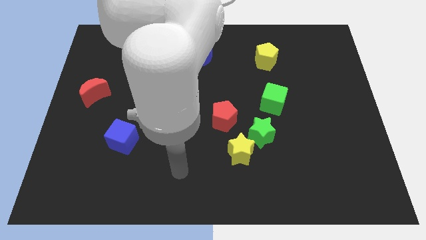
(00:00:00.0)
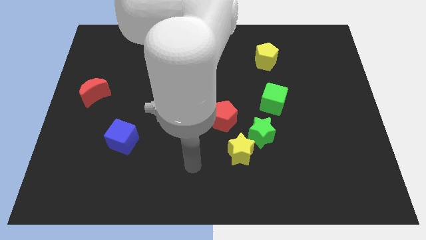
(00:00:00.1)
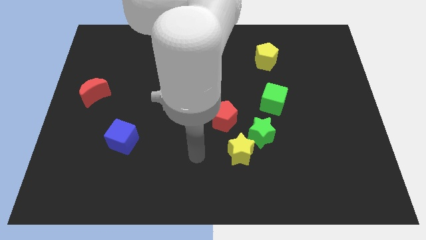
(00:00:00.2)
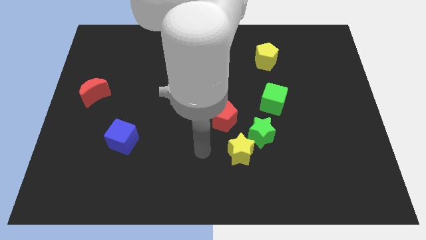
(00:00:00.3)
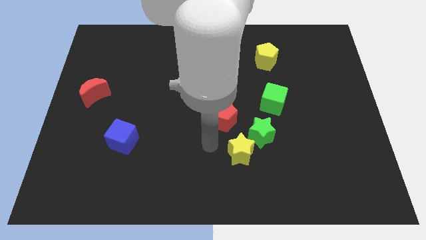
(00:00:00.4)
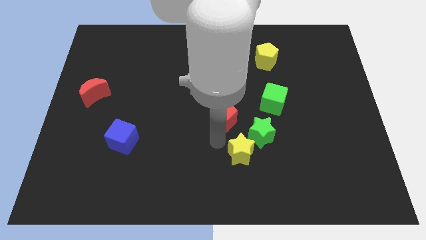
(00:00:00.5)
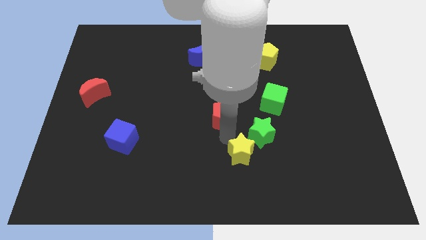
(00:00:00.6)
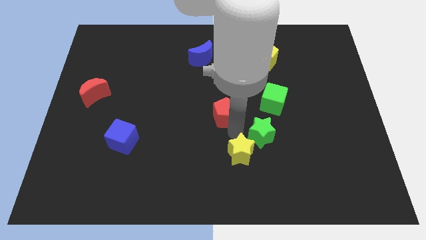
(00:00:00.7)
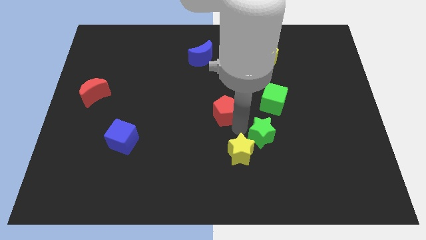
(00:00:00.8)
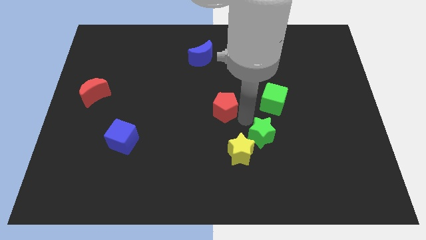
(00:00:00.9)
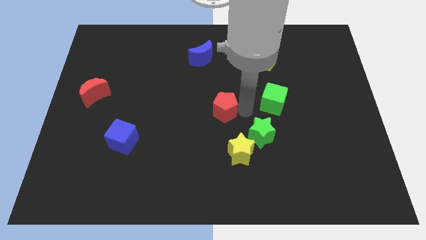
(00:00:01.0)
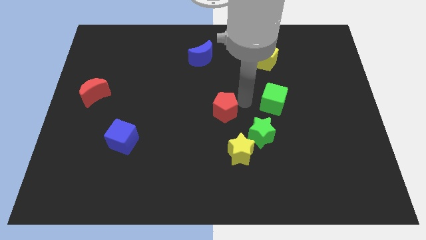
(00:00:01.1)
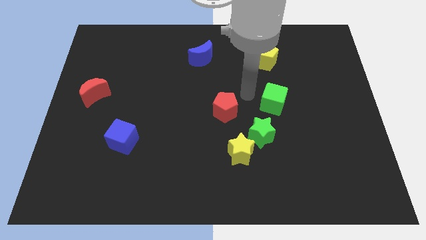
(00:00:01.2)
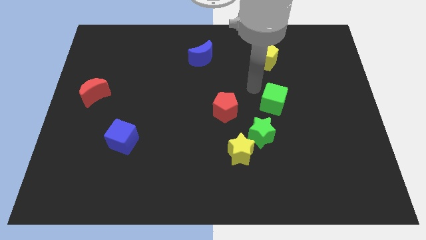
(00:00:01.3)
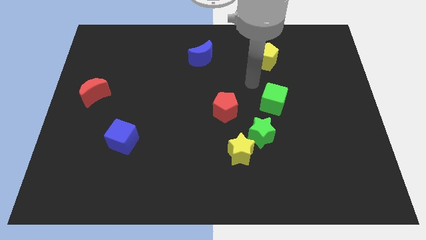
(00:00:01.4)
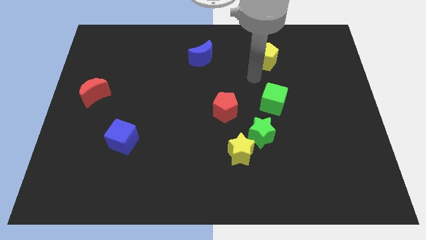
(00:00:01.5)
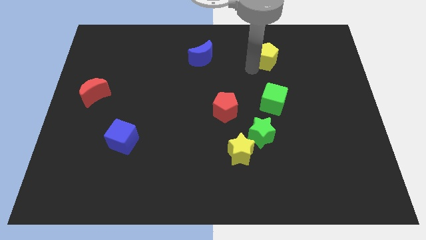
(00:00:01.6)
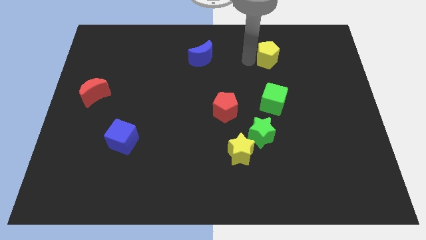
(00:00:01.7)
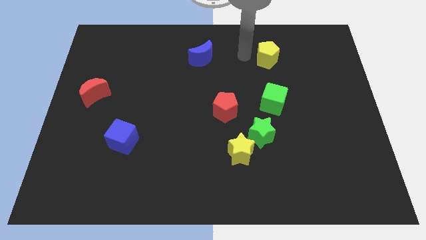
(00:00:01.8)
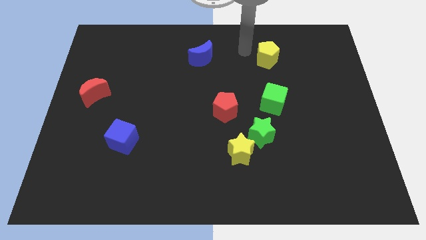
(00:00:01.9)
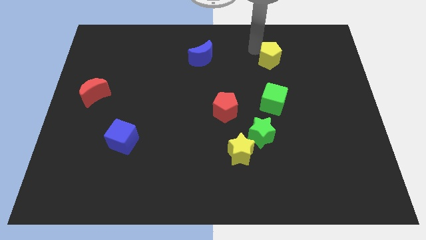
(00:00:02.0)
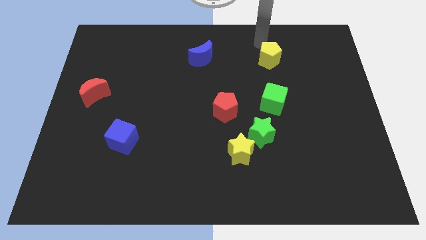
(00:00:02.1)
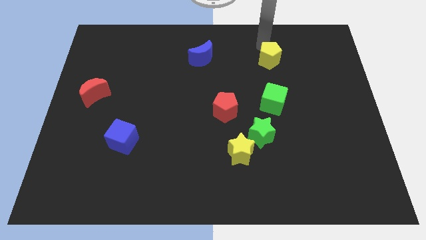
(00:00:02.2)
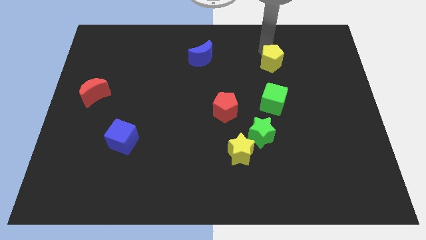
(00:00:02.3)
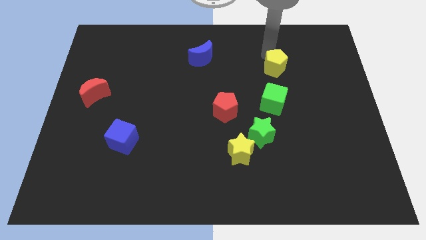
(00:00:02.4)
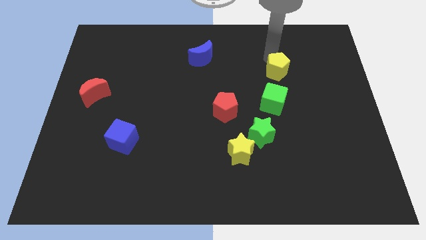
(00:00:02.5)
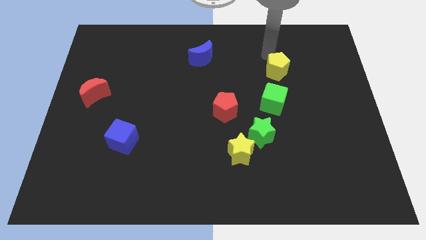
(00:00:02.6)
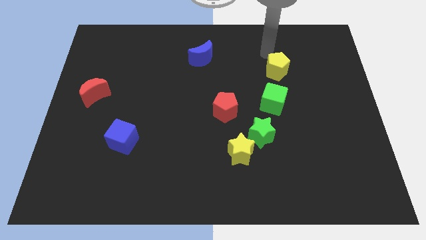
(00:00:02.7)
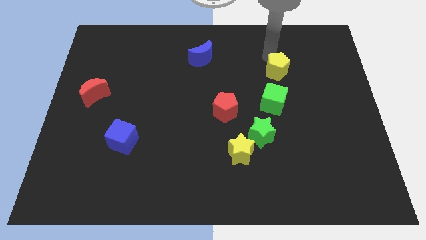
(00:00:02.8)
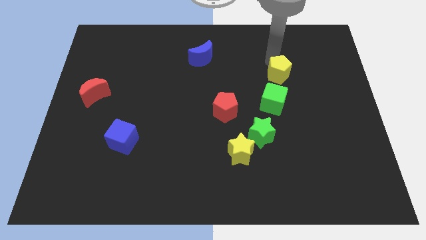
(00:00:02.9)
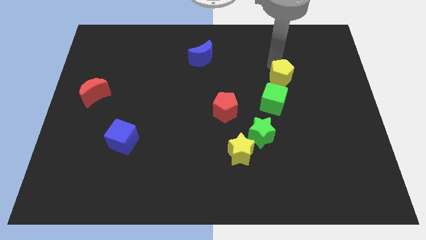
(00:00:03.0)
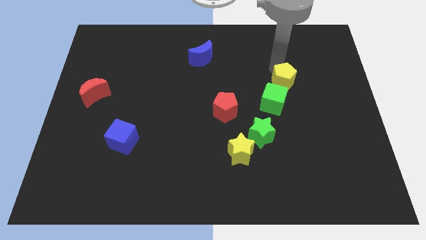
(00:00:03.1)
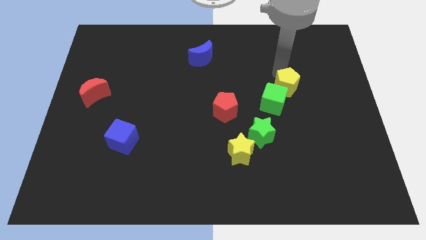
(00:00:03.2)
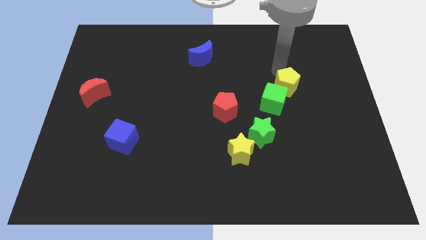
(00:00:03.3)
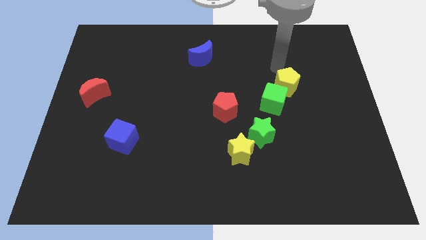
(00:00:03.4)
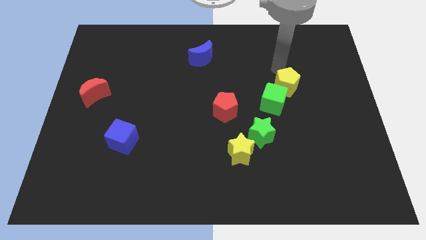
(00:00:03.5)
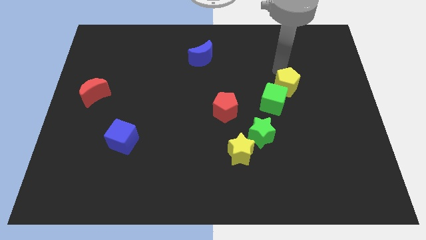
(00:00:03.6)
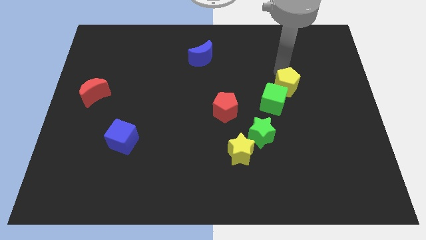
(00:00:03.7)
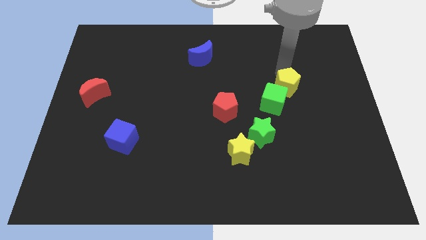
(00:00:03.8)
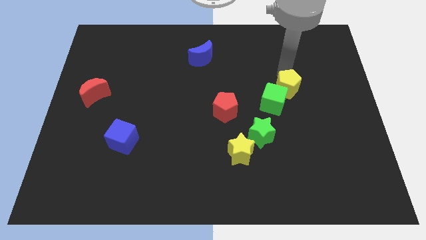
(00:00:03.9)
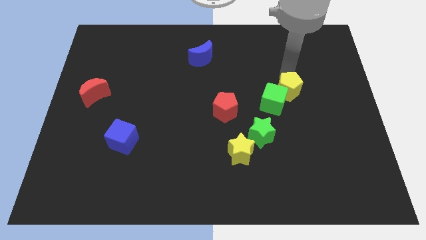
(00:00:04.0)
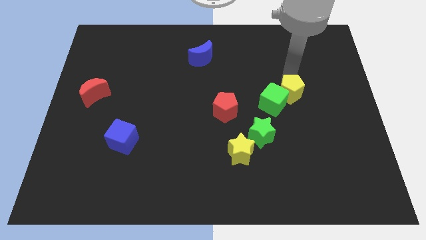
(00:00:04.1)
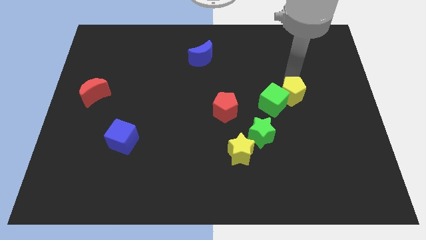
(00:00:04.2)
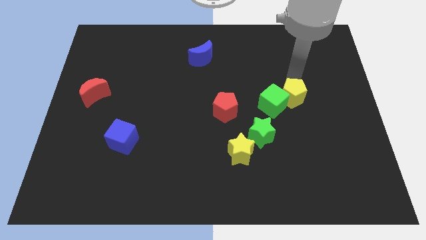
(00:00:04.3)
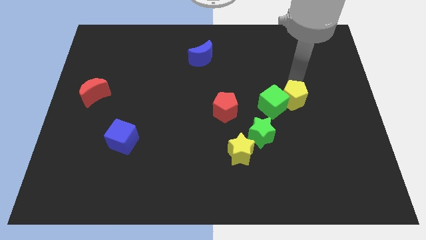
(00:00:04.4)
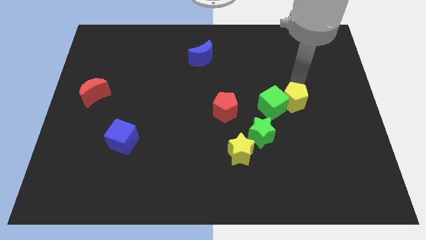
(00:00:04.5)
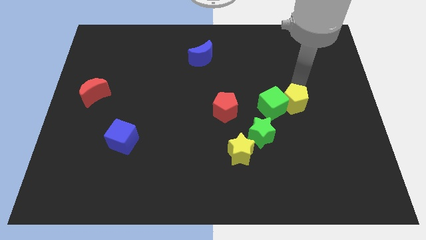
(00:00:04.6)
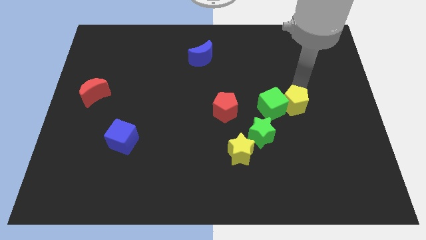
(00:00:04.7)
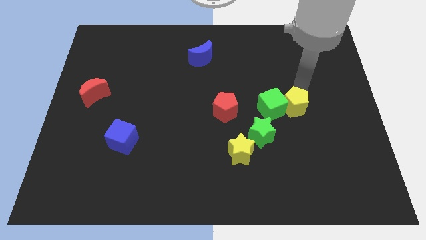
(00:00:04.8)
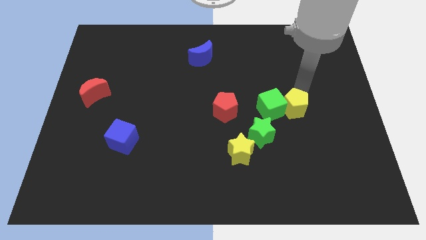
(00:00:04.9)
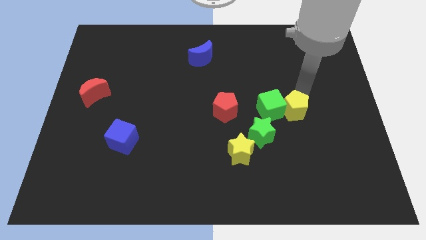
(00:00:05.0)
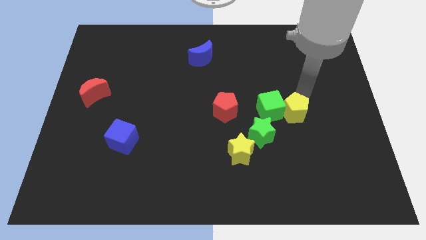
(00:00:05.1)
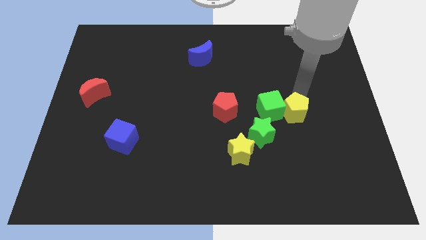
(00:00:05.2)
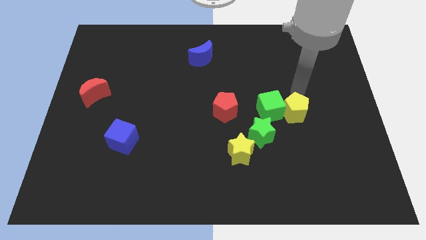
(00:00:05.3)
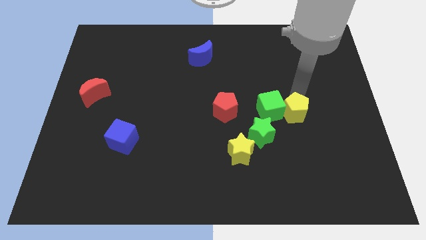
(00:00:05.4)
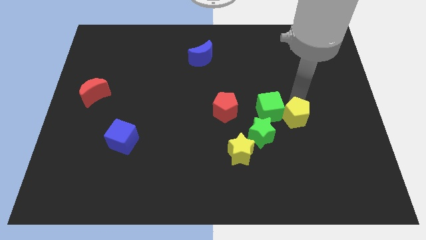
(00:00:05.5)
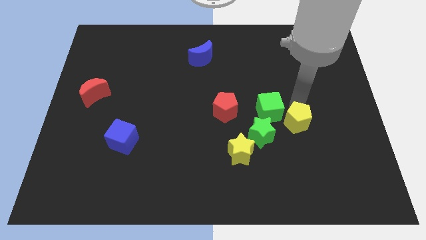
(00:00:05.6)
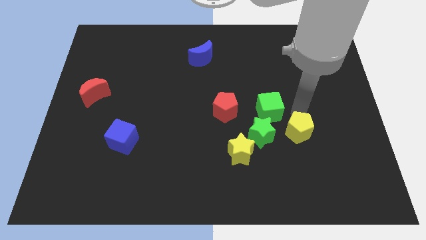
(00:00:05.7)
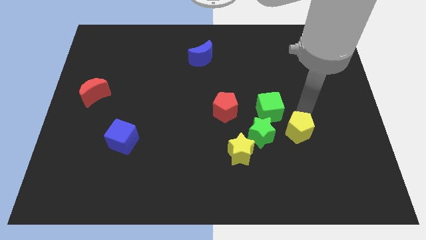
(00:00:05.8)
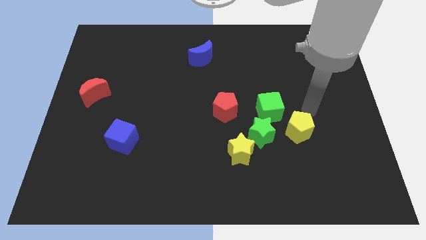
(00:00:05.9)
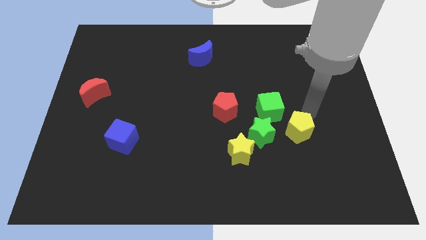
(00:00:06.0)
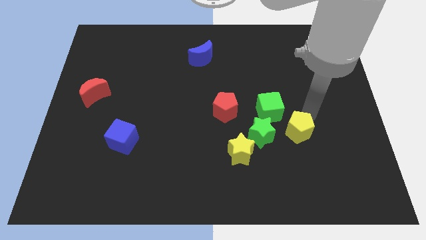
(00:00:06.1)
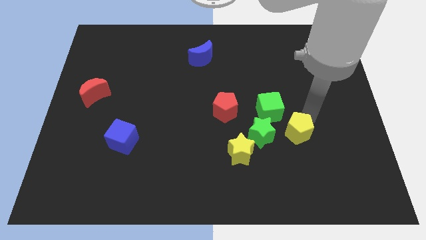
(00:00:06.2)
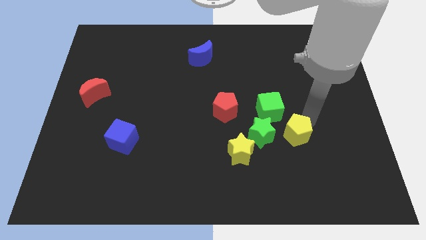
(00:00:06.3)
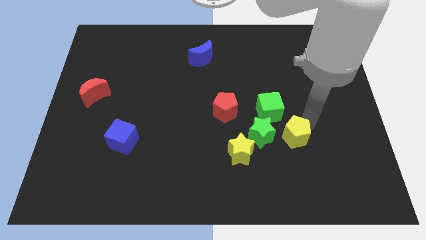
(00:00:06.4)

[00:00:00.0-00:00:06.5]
move the yellow pentagon right of the yellow star
